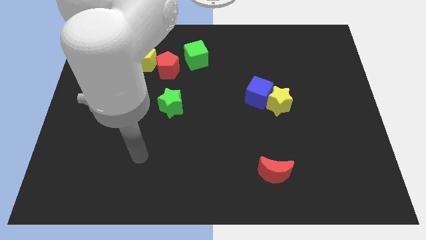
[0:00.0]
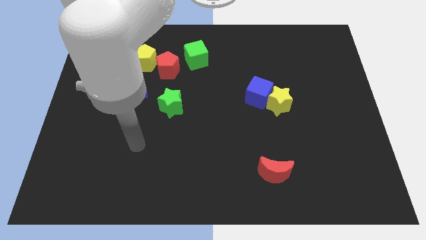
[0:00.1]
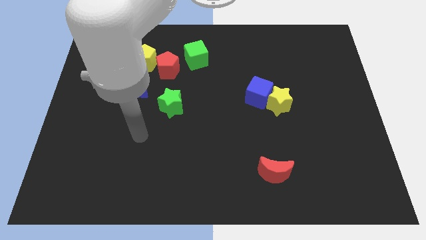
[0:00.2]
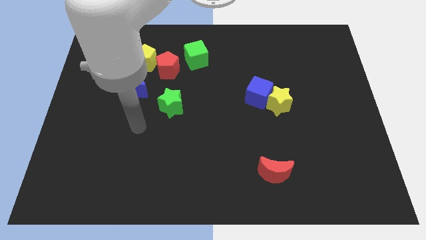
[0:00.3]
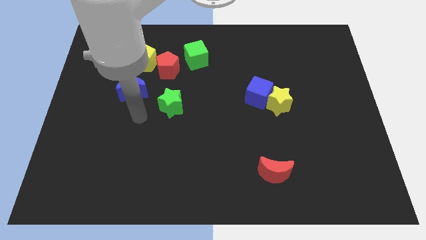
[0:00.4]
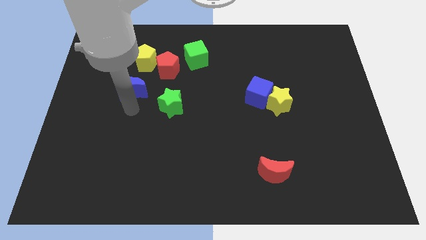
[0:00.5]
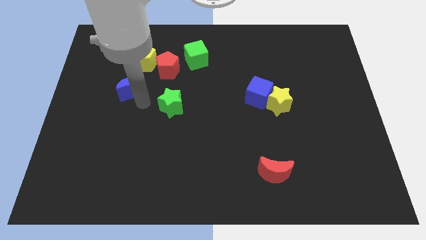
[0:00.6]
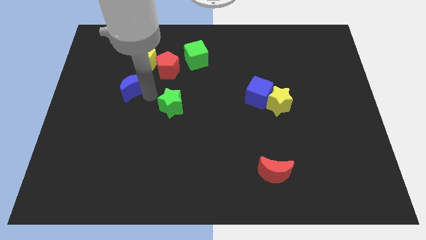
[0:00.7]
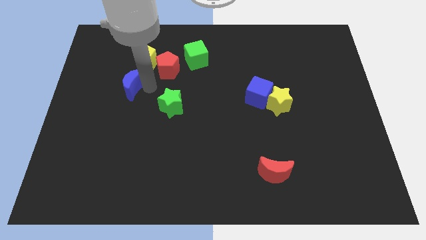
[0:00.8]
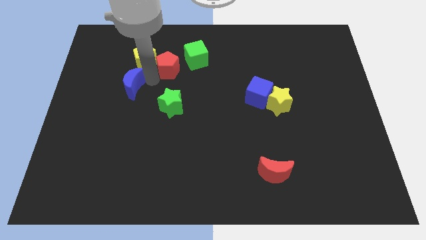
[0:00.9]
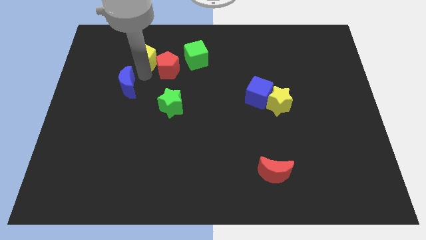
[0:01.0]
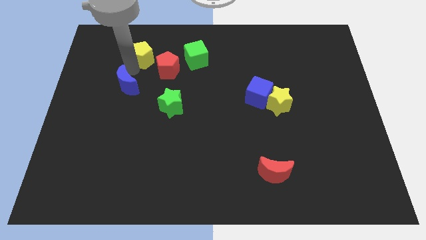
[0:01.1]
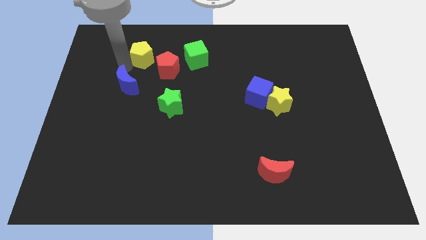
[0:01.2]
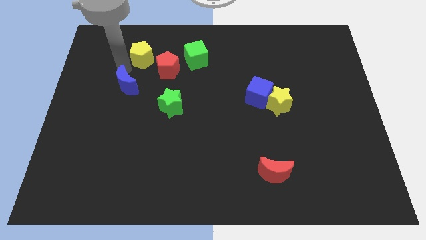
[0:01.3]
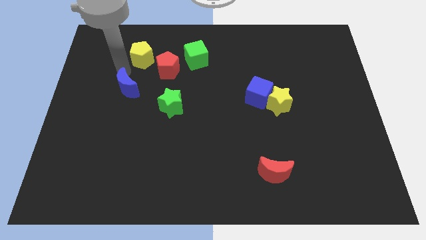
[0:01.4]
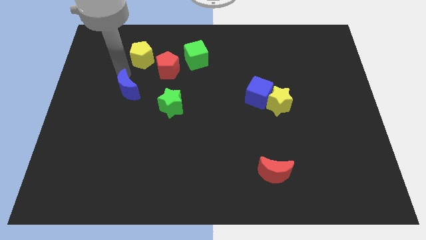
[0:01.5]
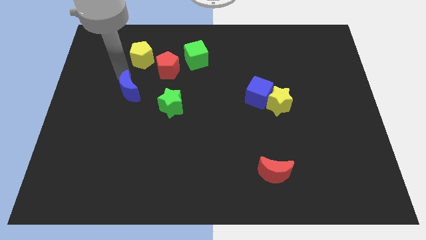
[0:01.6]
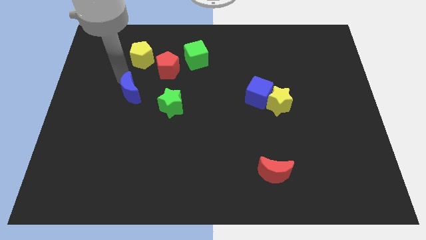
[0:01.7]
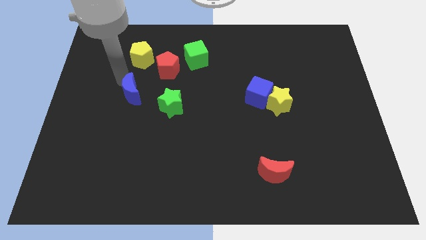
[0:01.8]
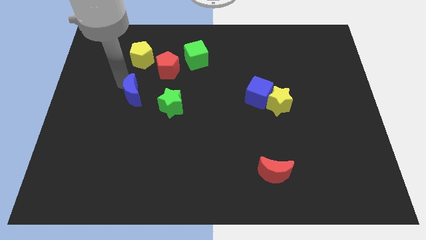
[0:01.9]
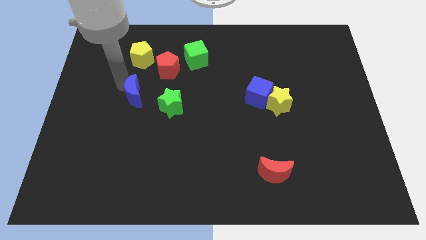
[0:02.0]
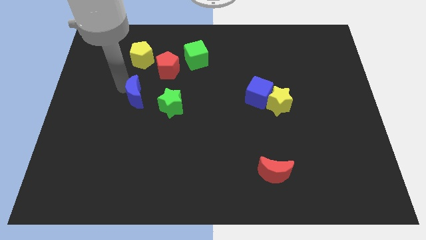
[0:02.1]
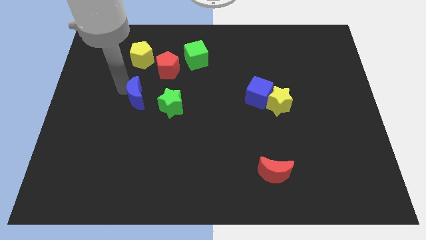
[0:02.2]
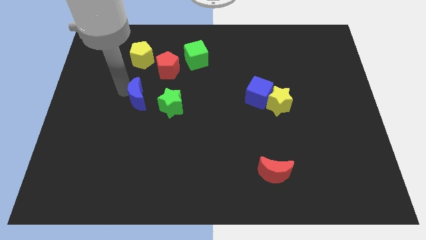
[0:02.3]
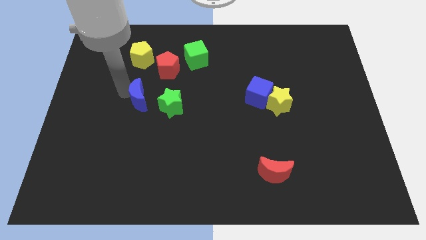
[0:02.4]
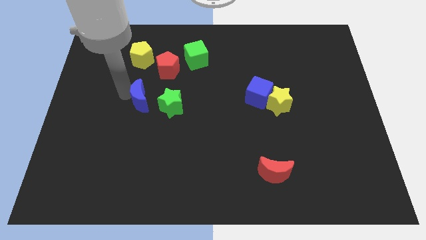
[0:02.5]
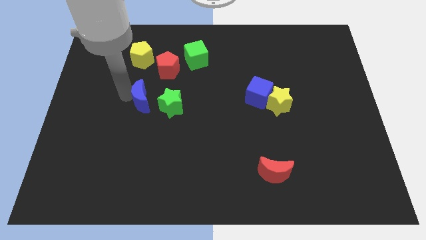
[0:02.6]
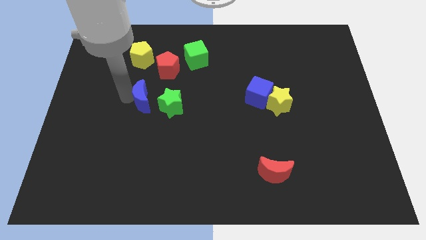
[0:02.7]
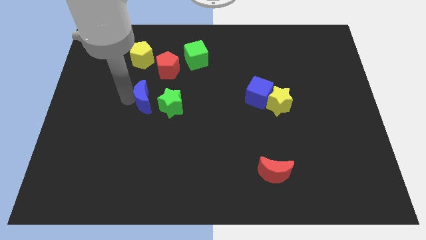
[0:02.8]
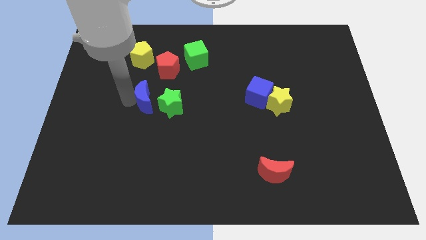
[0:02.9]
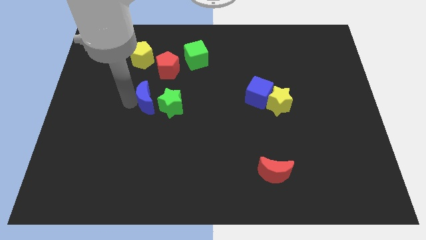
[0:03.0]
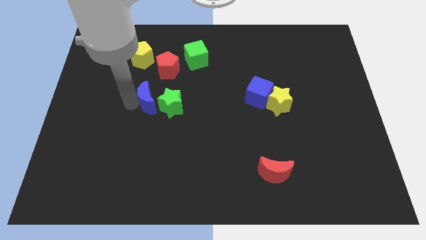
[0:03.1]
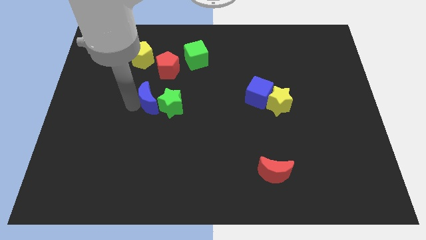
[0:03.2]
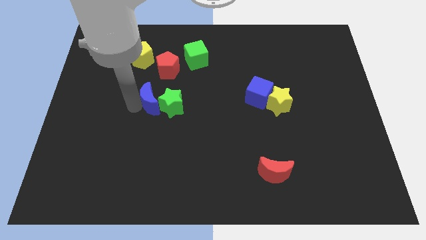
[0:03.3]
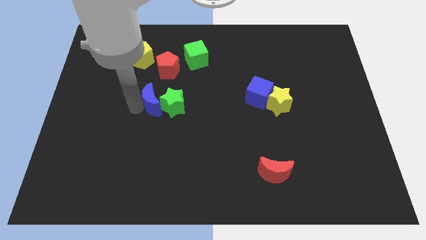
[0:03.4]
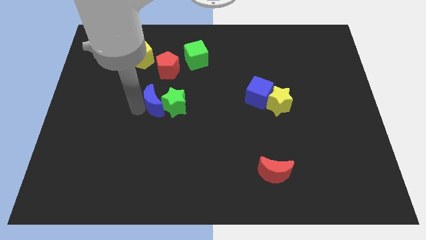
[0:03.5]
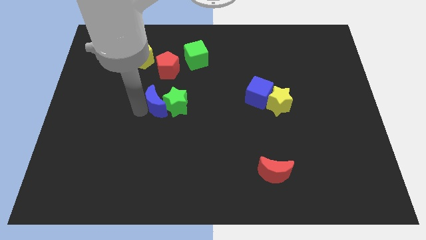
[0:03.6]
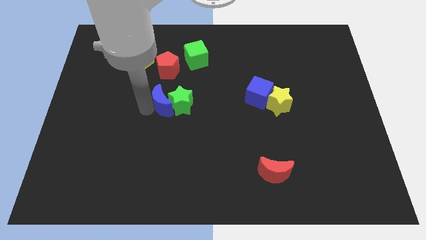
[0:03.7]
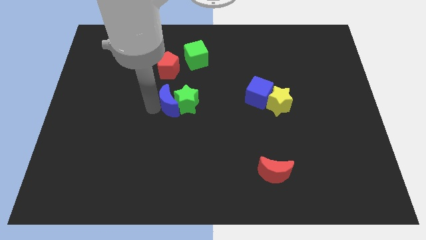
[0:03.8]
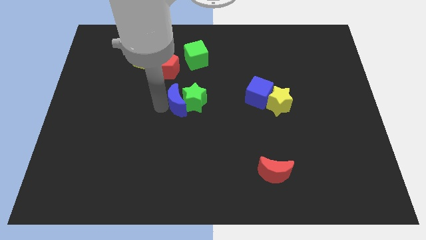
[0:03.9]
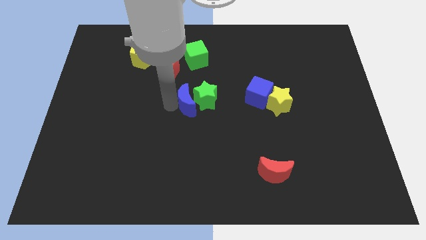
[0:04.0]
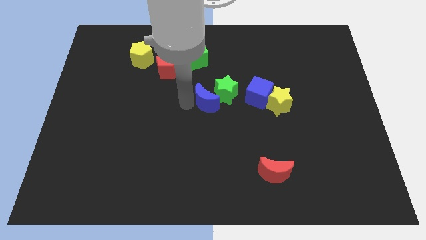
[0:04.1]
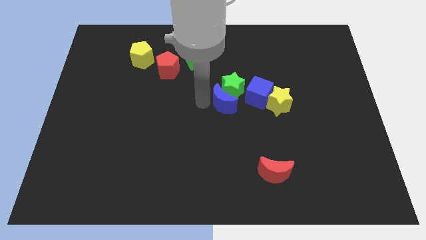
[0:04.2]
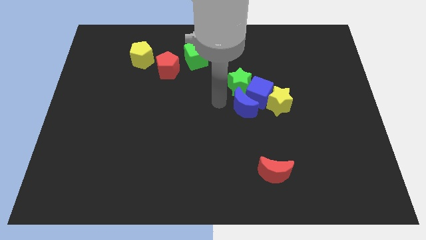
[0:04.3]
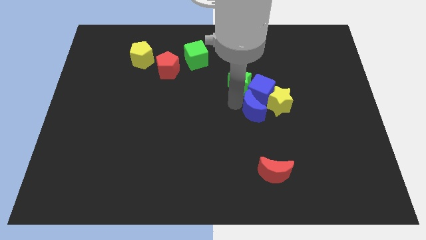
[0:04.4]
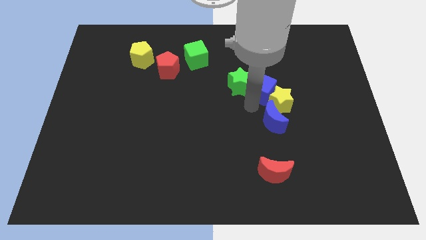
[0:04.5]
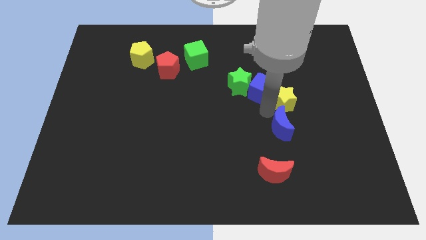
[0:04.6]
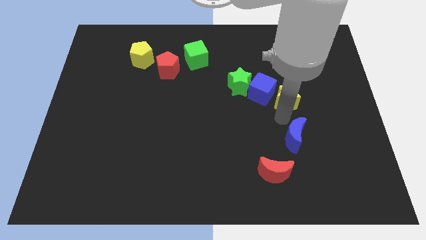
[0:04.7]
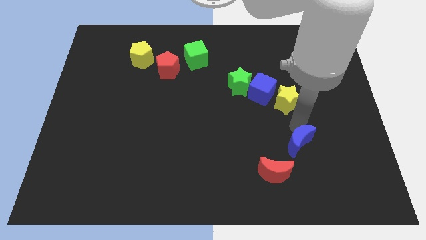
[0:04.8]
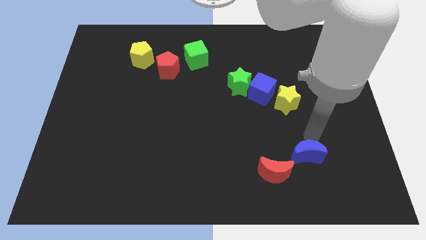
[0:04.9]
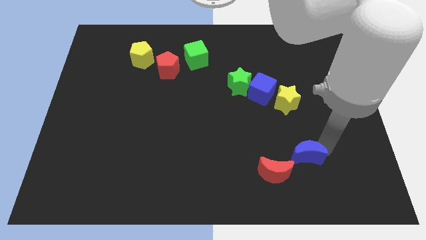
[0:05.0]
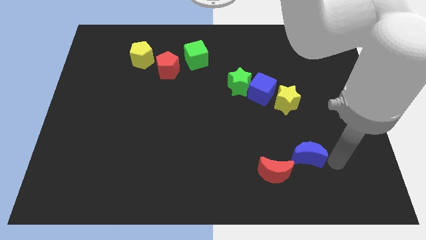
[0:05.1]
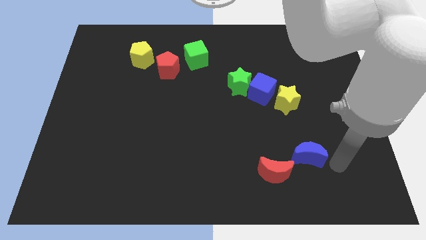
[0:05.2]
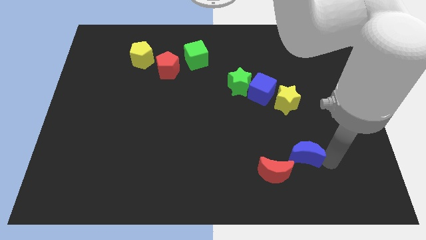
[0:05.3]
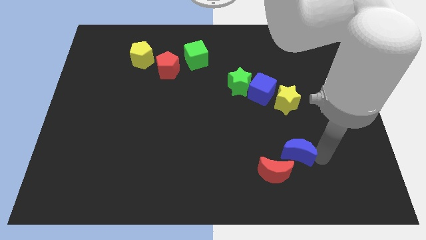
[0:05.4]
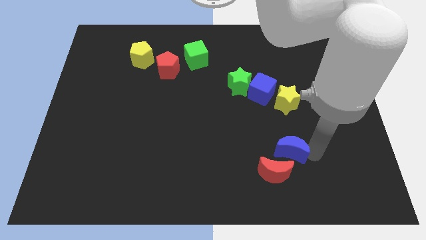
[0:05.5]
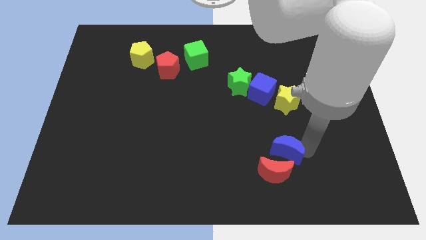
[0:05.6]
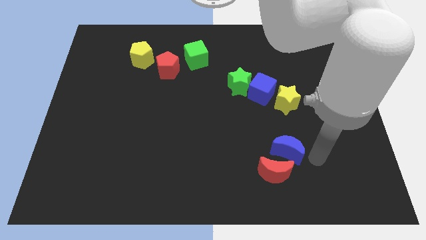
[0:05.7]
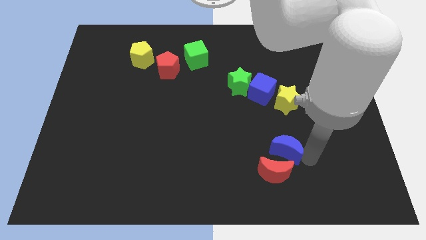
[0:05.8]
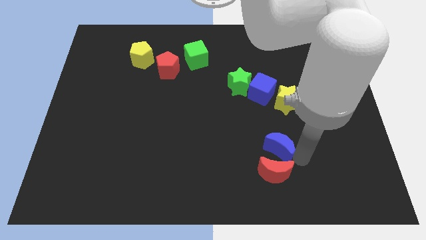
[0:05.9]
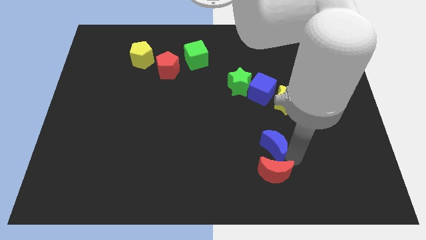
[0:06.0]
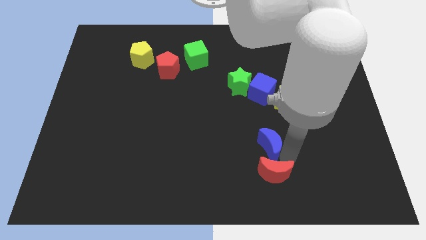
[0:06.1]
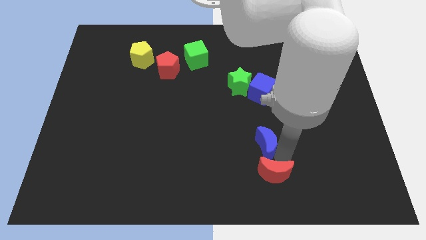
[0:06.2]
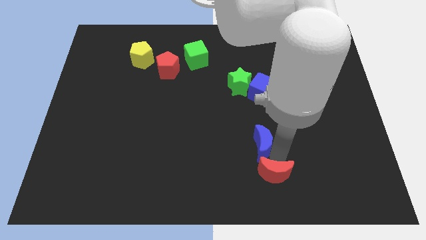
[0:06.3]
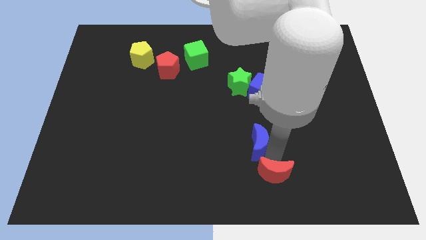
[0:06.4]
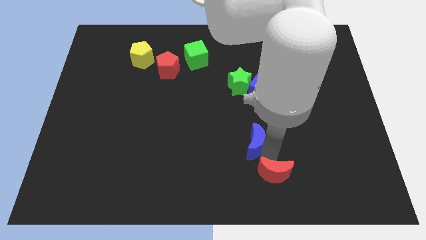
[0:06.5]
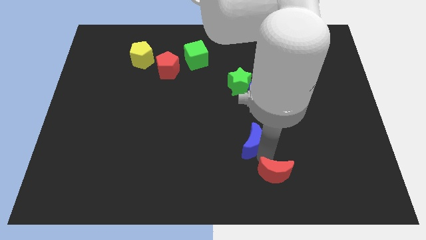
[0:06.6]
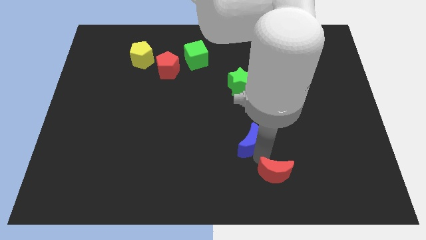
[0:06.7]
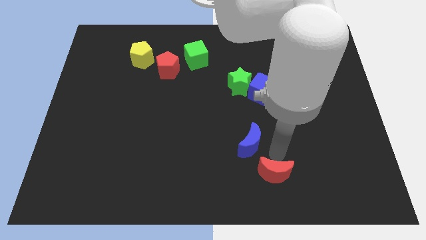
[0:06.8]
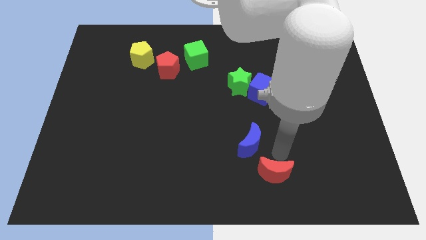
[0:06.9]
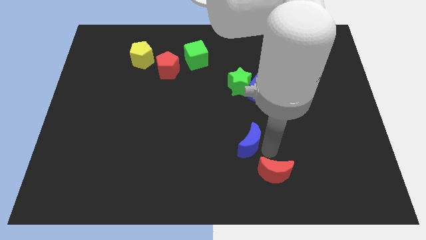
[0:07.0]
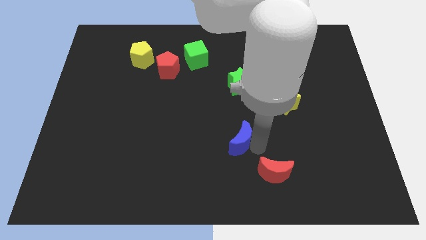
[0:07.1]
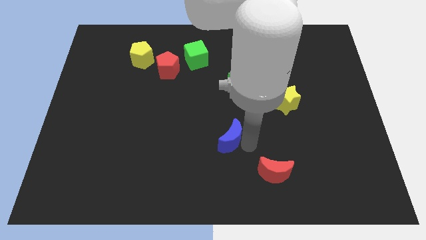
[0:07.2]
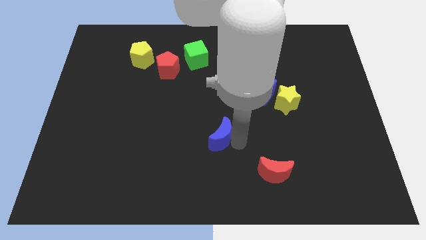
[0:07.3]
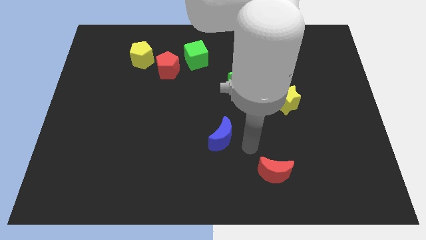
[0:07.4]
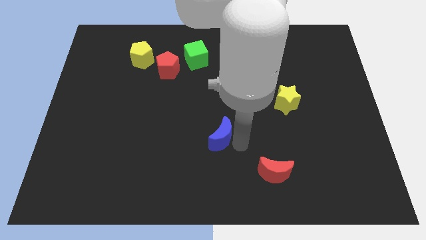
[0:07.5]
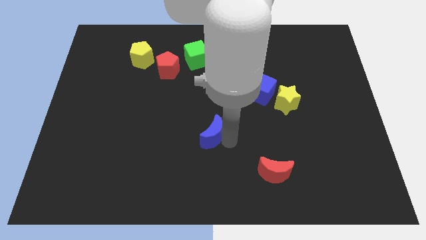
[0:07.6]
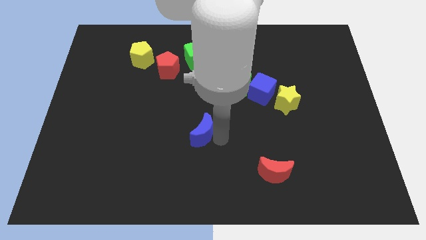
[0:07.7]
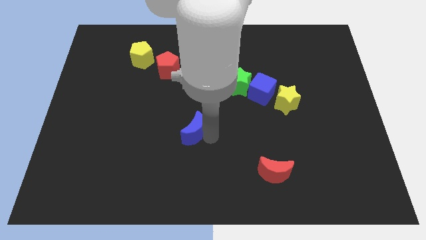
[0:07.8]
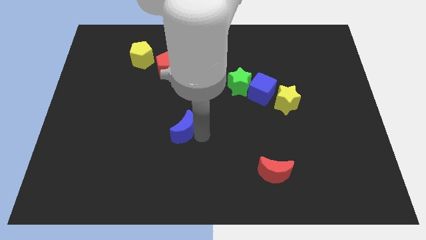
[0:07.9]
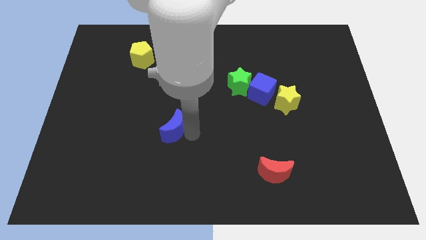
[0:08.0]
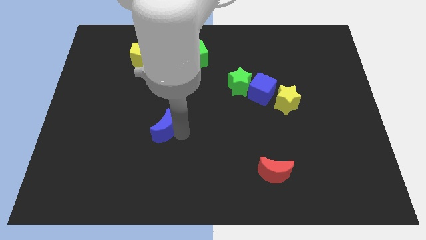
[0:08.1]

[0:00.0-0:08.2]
move the blue moon downwards slightly
